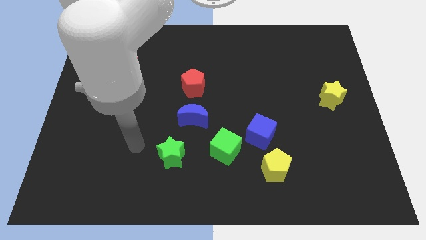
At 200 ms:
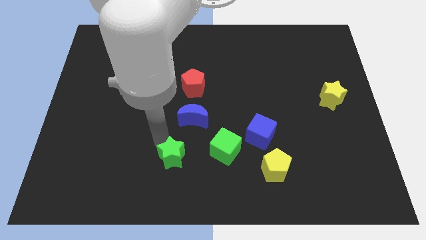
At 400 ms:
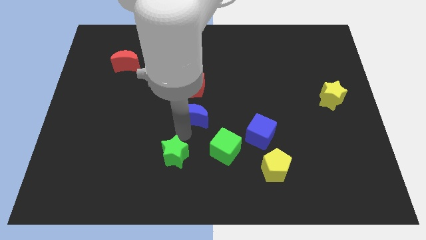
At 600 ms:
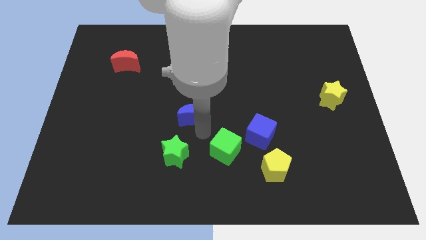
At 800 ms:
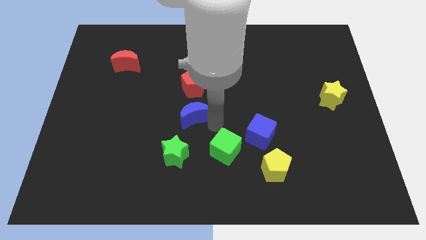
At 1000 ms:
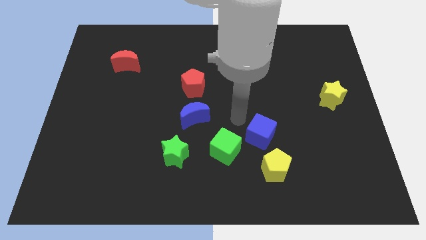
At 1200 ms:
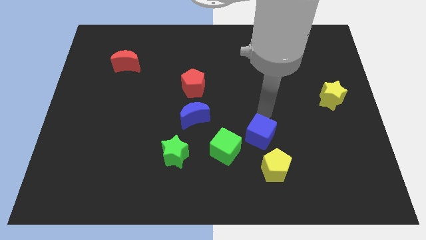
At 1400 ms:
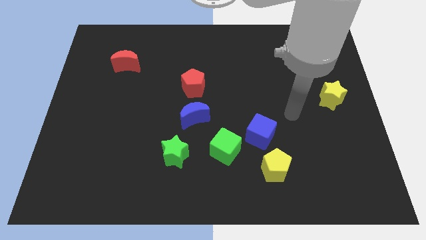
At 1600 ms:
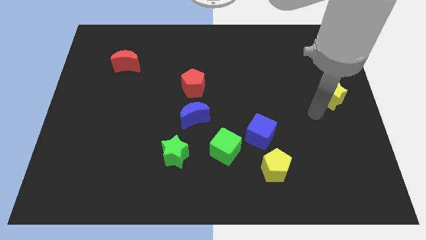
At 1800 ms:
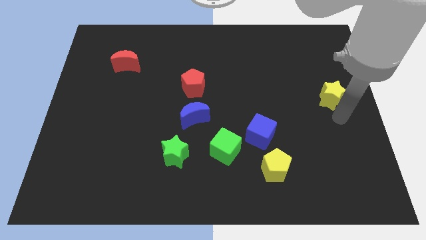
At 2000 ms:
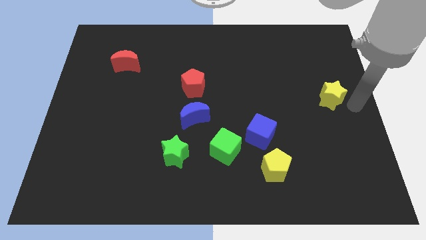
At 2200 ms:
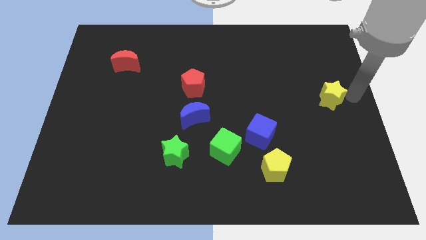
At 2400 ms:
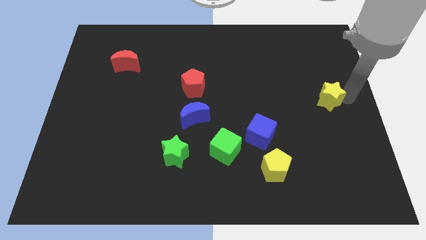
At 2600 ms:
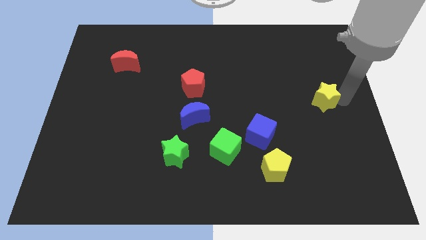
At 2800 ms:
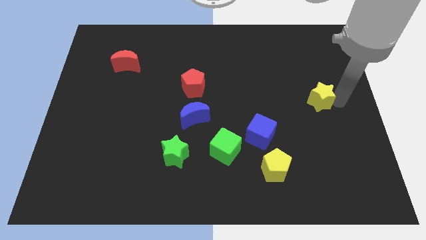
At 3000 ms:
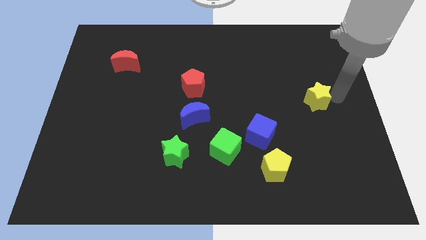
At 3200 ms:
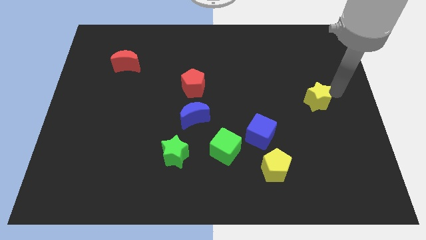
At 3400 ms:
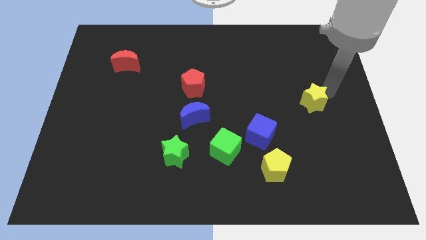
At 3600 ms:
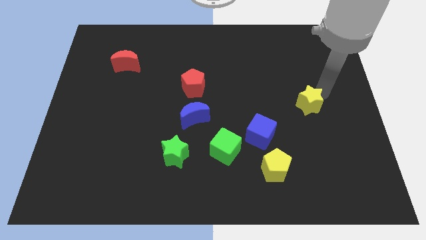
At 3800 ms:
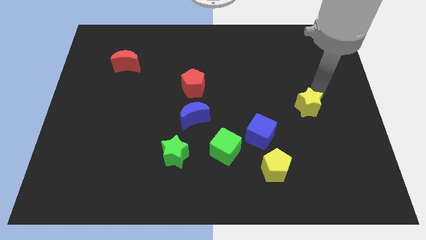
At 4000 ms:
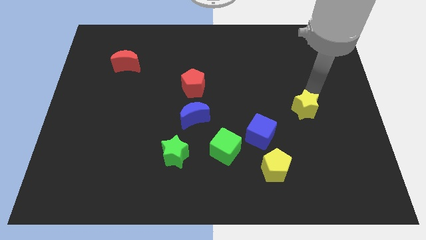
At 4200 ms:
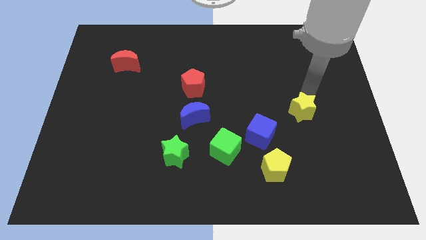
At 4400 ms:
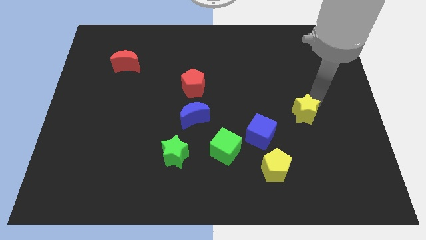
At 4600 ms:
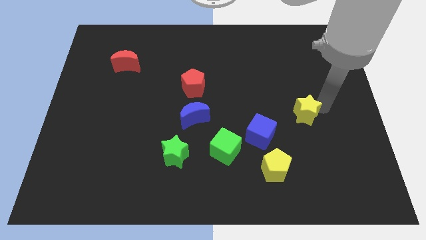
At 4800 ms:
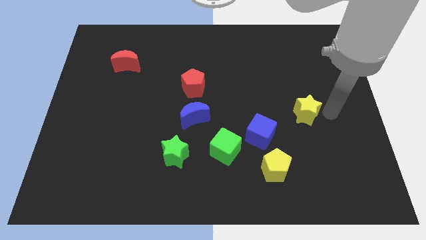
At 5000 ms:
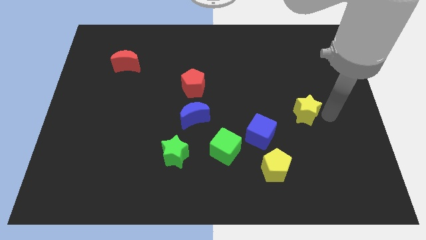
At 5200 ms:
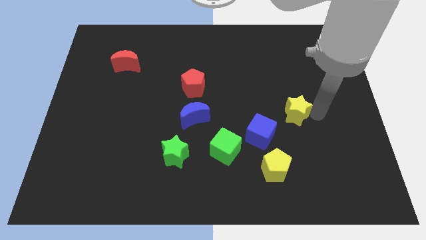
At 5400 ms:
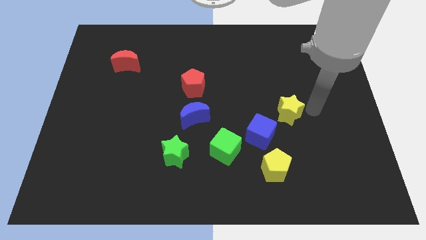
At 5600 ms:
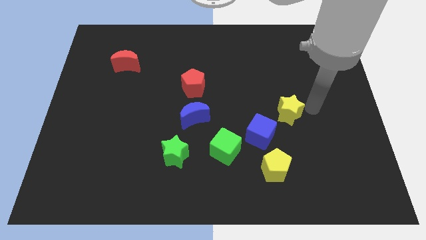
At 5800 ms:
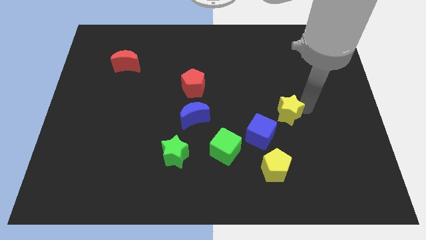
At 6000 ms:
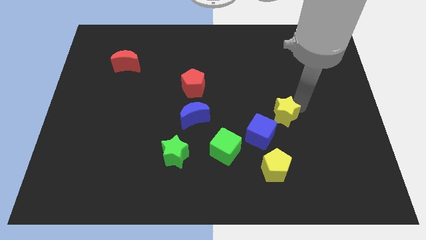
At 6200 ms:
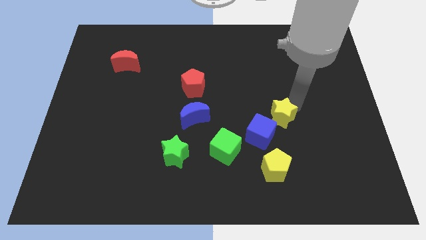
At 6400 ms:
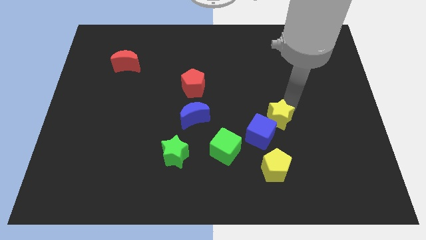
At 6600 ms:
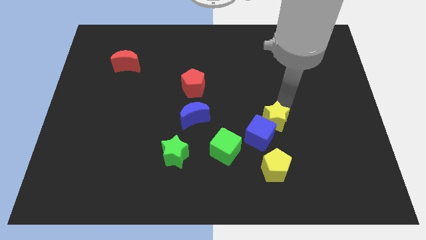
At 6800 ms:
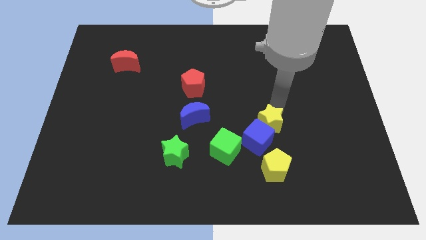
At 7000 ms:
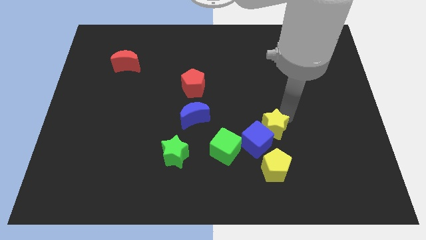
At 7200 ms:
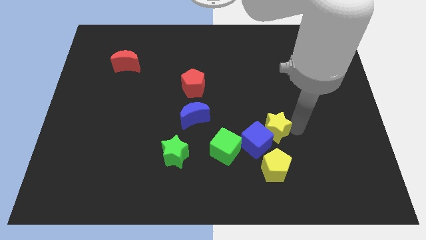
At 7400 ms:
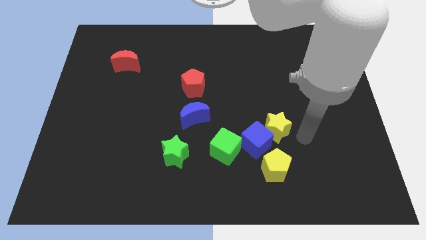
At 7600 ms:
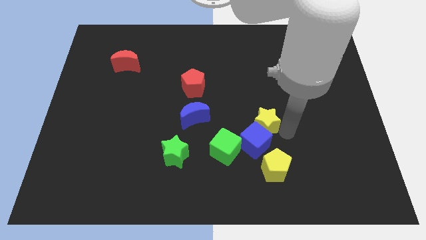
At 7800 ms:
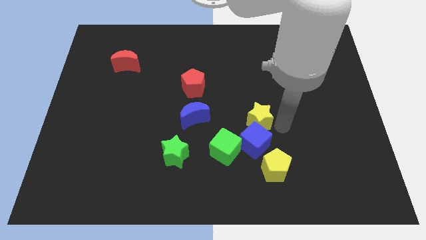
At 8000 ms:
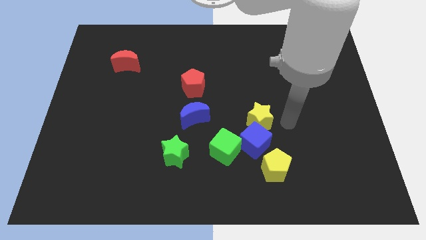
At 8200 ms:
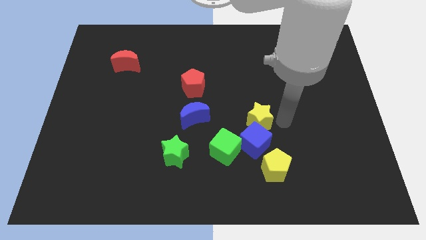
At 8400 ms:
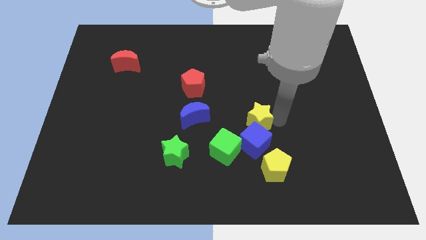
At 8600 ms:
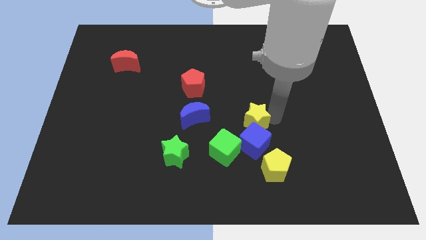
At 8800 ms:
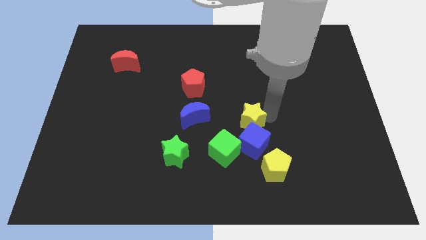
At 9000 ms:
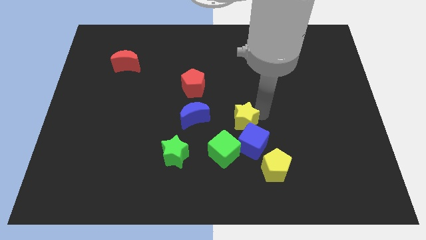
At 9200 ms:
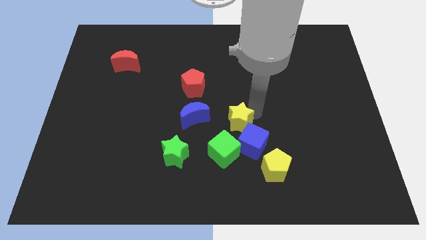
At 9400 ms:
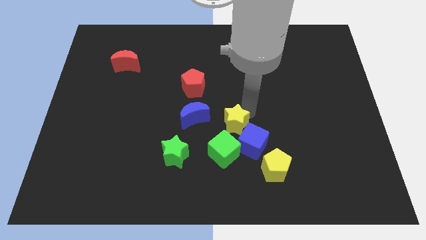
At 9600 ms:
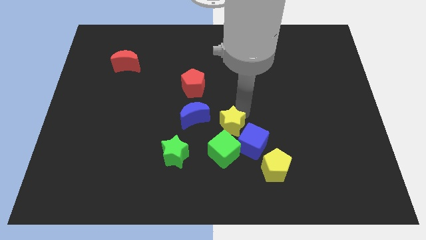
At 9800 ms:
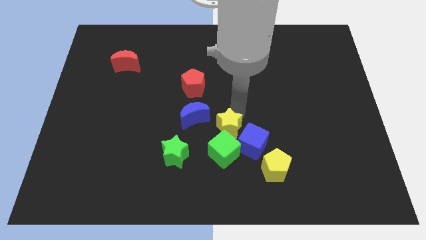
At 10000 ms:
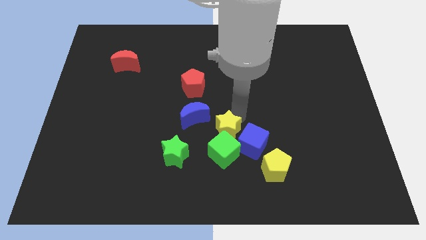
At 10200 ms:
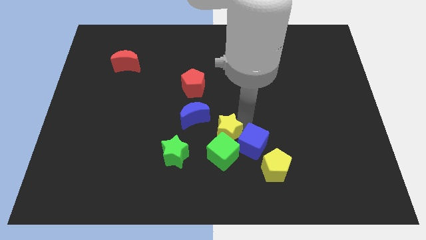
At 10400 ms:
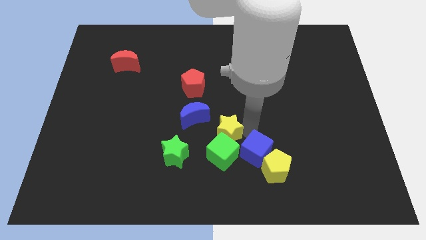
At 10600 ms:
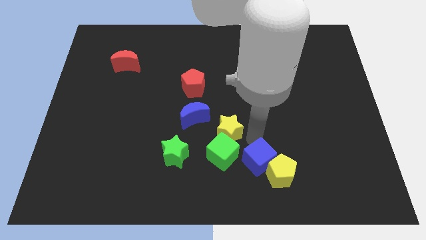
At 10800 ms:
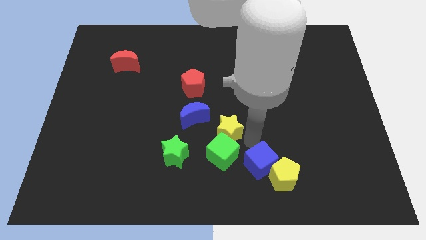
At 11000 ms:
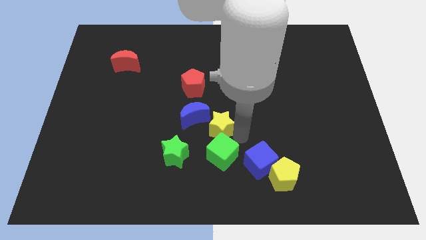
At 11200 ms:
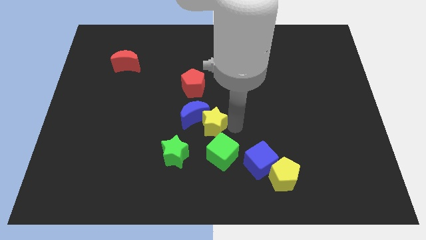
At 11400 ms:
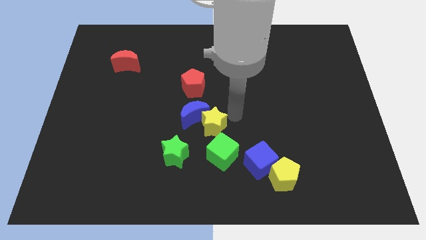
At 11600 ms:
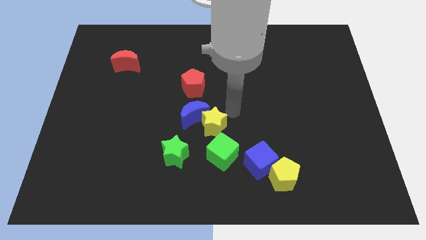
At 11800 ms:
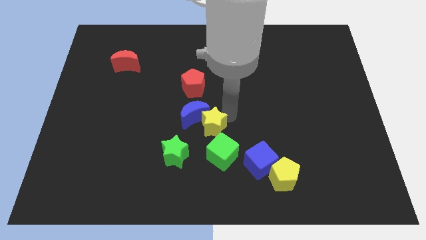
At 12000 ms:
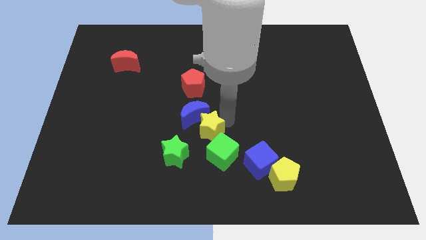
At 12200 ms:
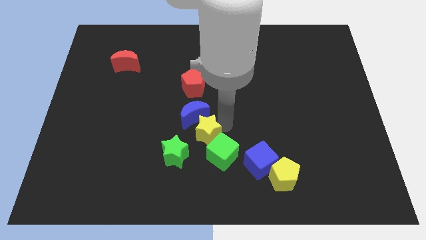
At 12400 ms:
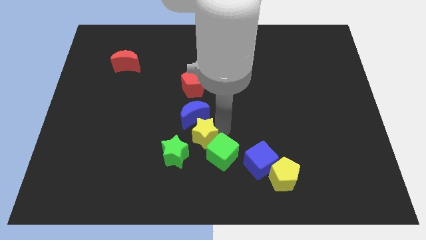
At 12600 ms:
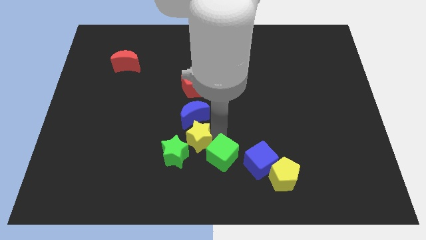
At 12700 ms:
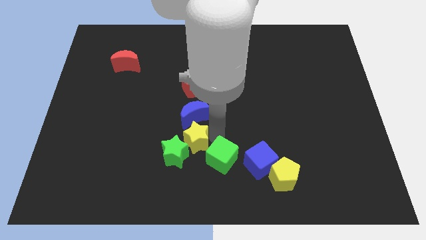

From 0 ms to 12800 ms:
slide the yellow star towards the green star
